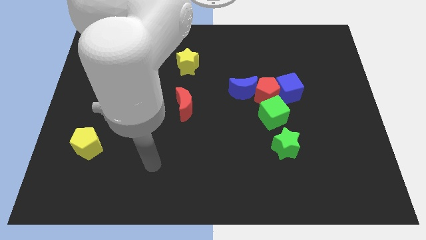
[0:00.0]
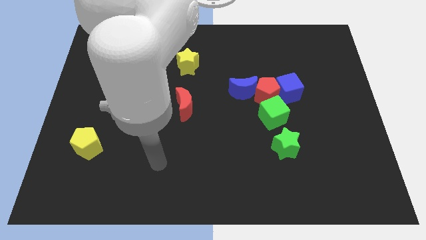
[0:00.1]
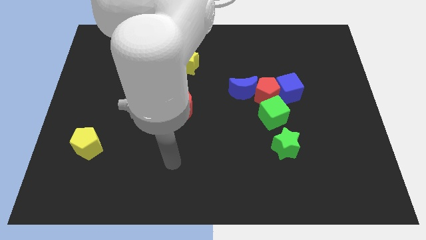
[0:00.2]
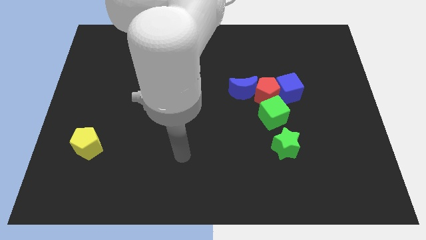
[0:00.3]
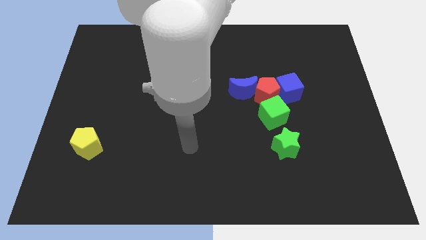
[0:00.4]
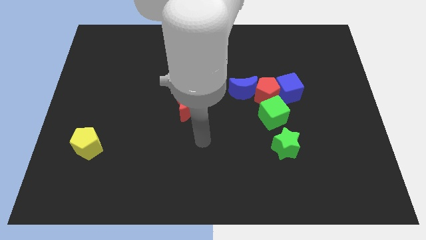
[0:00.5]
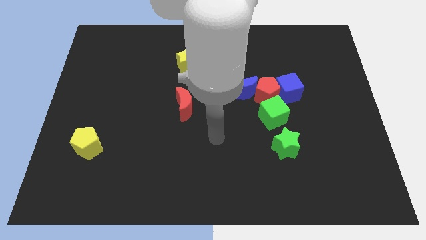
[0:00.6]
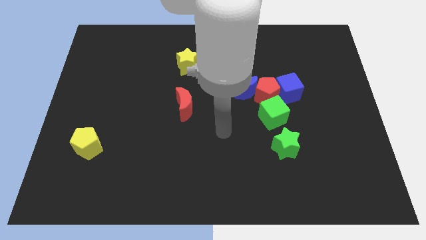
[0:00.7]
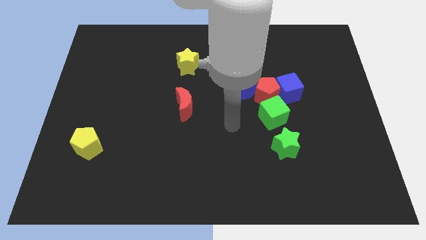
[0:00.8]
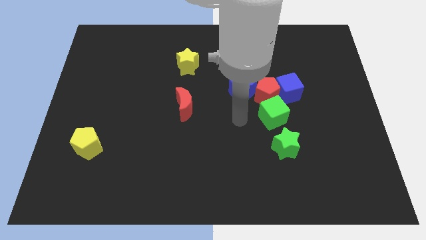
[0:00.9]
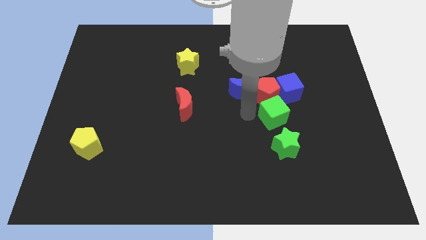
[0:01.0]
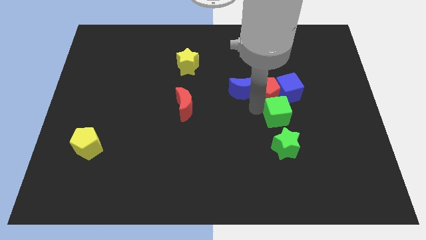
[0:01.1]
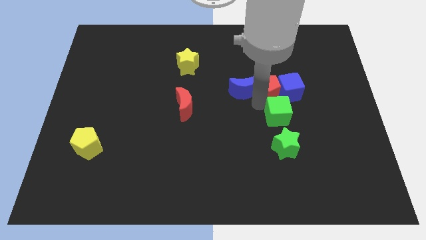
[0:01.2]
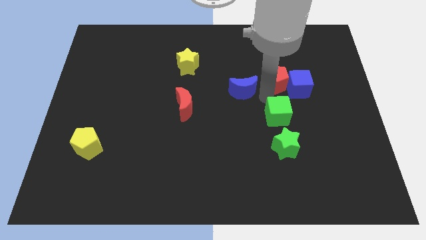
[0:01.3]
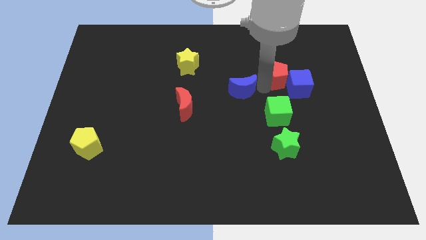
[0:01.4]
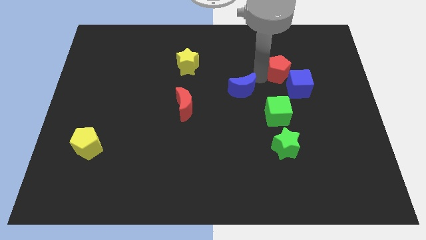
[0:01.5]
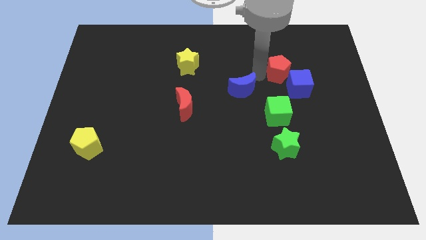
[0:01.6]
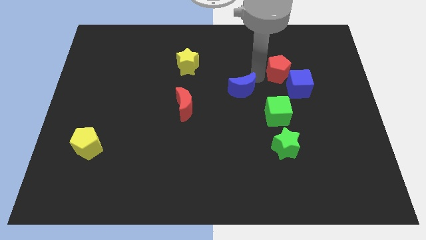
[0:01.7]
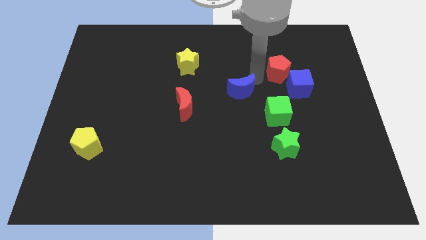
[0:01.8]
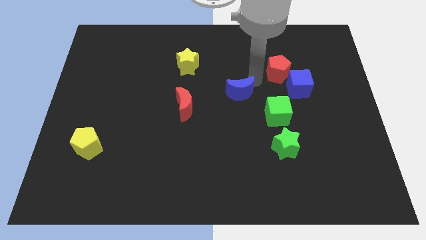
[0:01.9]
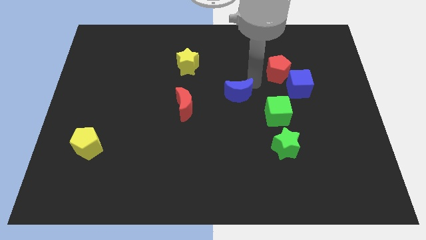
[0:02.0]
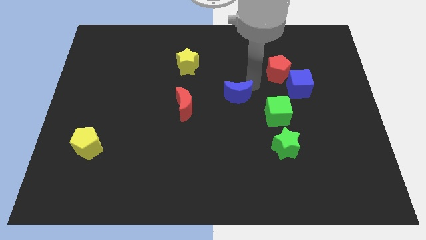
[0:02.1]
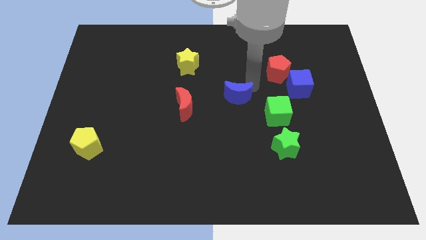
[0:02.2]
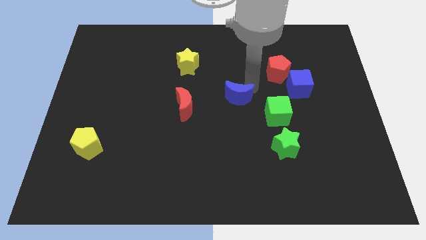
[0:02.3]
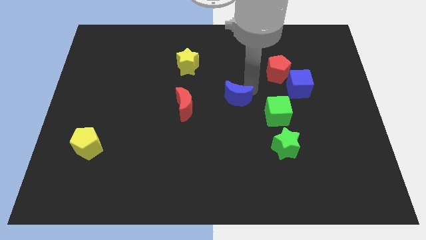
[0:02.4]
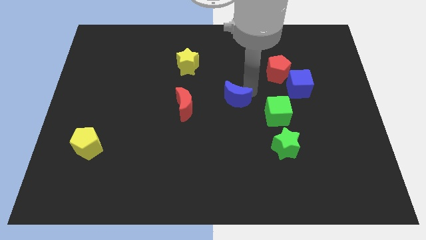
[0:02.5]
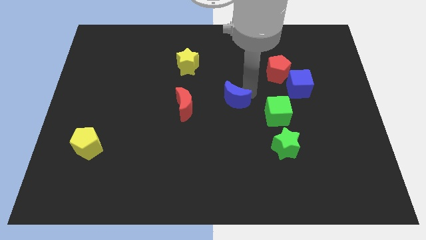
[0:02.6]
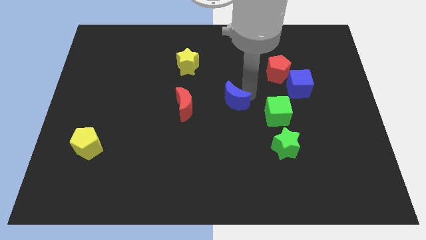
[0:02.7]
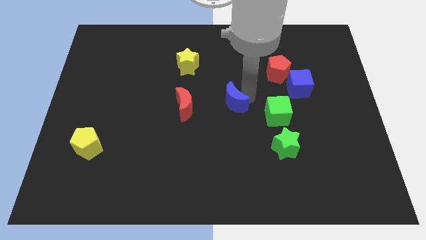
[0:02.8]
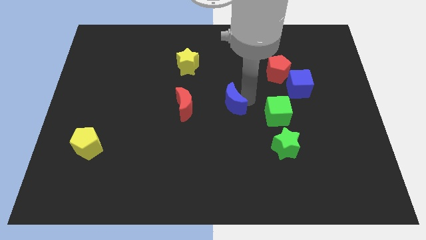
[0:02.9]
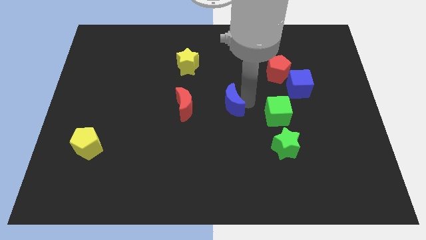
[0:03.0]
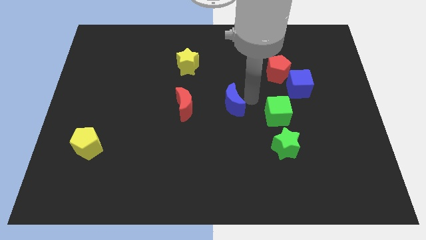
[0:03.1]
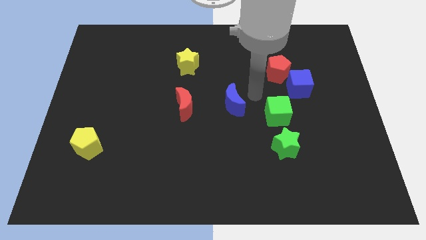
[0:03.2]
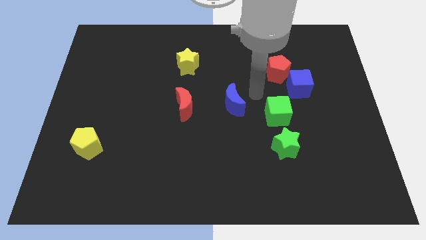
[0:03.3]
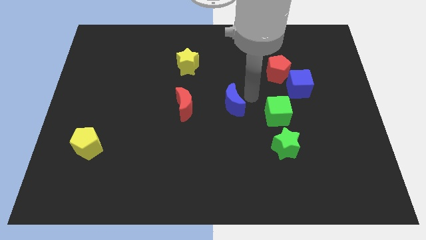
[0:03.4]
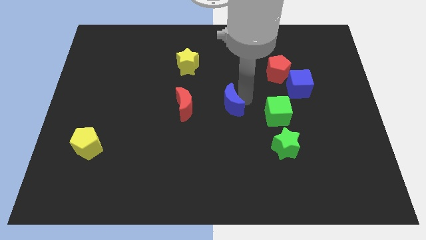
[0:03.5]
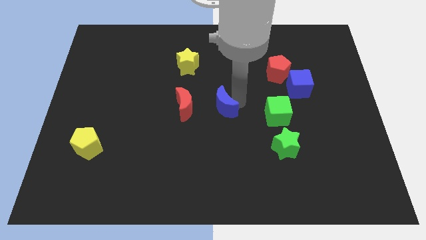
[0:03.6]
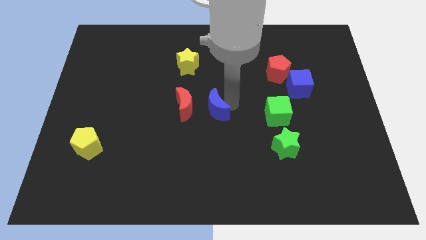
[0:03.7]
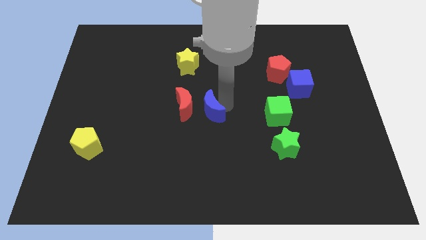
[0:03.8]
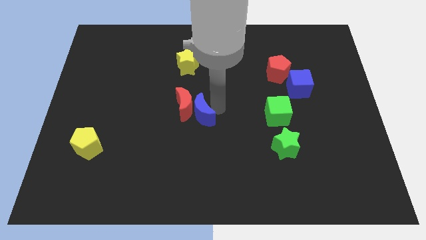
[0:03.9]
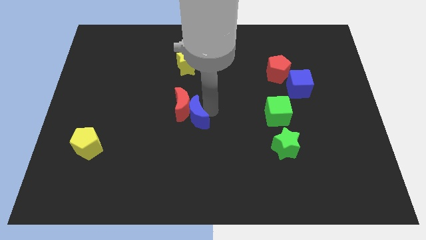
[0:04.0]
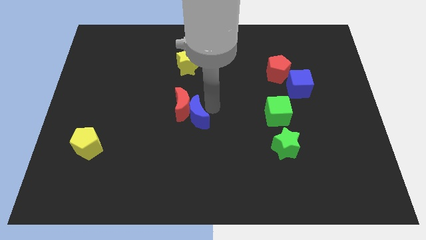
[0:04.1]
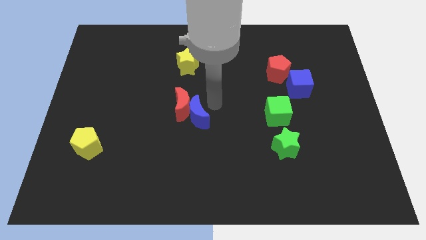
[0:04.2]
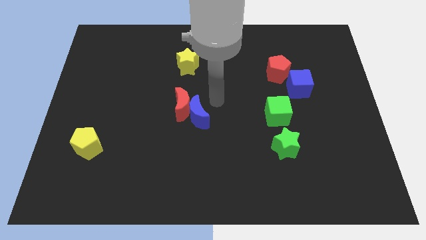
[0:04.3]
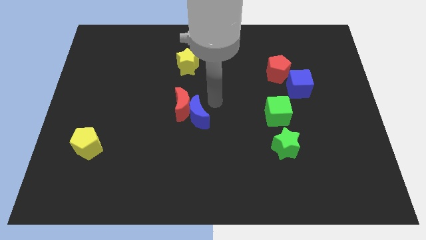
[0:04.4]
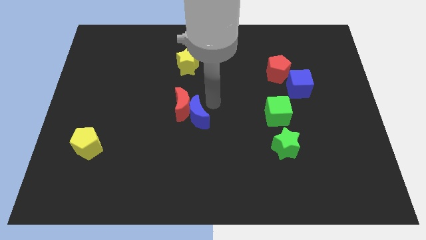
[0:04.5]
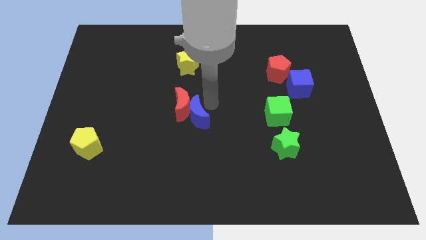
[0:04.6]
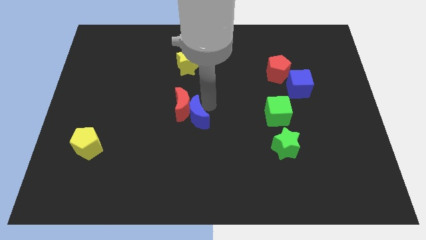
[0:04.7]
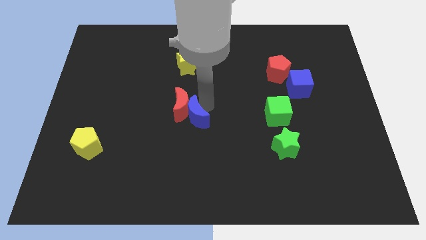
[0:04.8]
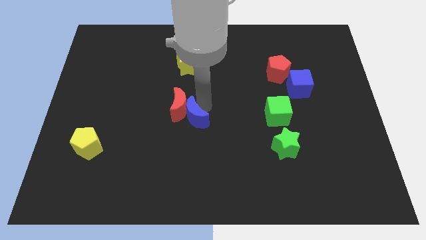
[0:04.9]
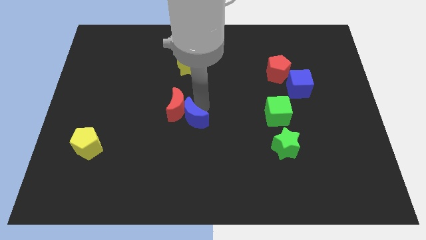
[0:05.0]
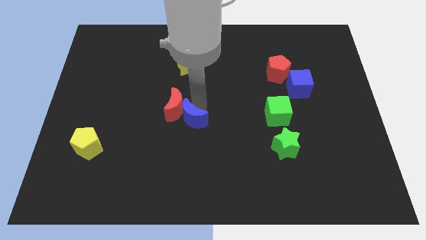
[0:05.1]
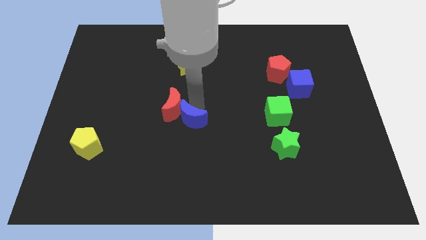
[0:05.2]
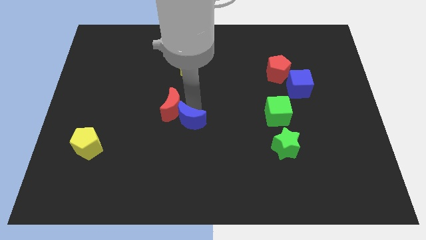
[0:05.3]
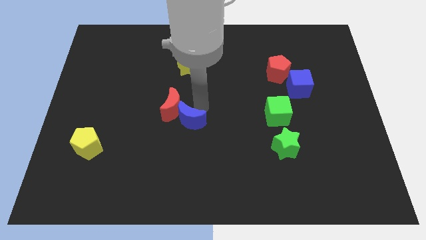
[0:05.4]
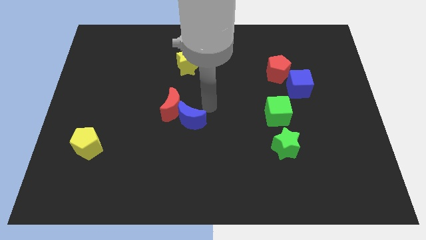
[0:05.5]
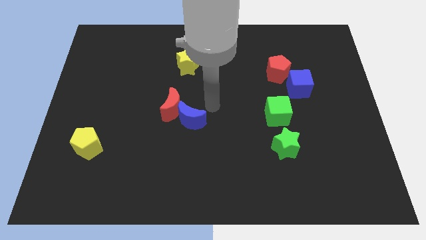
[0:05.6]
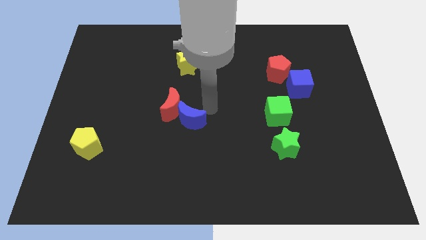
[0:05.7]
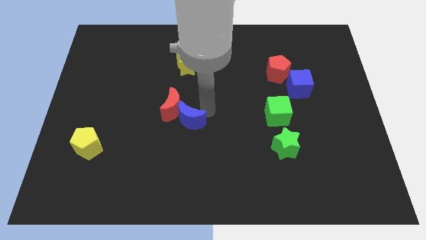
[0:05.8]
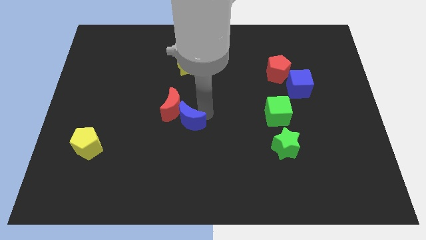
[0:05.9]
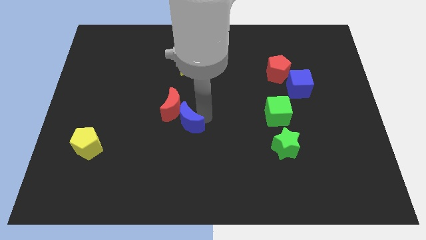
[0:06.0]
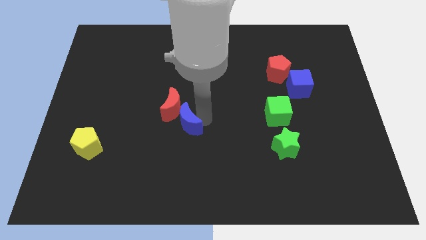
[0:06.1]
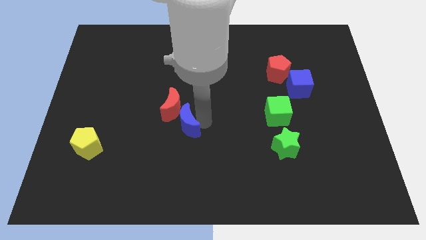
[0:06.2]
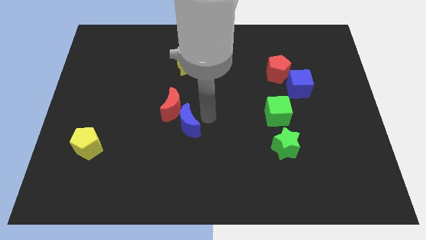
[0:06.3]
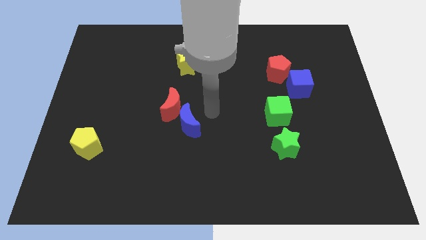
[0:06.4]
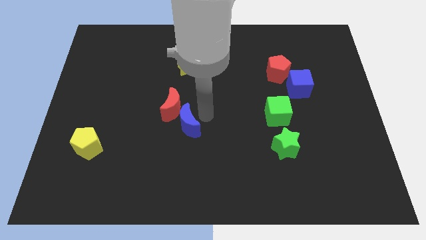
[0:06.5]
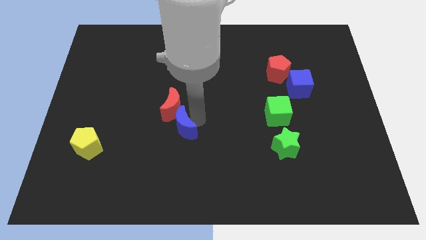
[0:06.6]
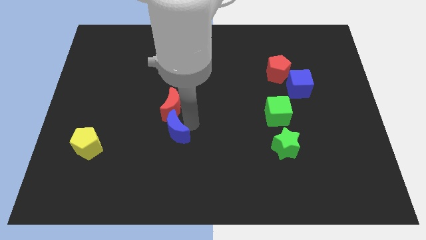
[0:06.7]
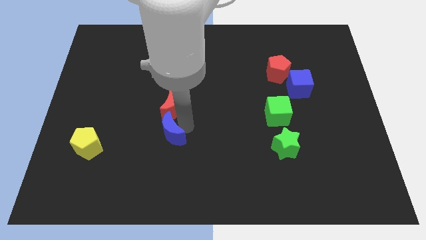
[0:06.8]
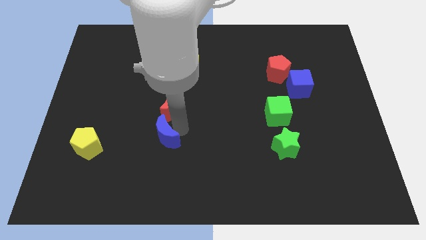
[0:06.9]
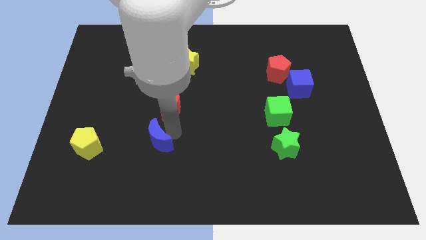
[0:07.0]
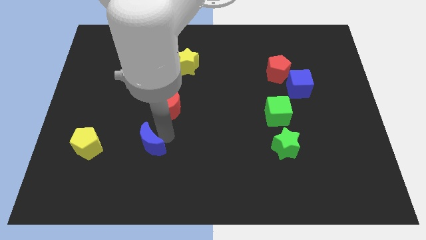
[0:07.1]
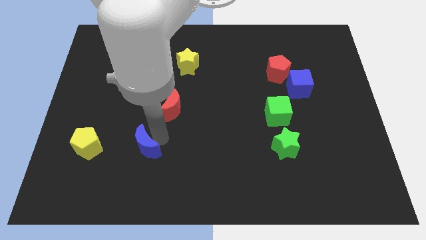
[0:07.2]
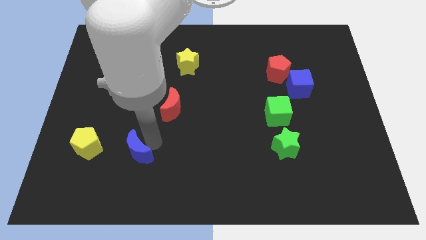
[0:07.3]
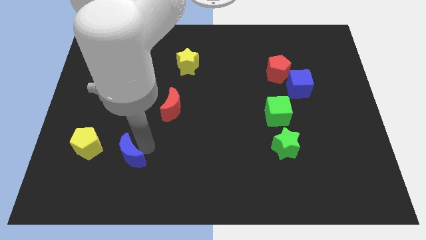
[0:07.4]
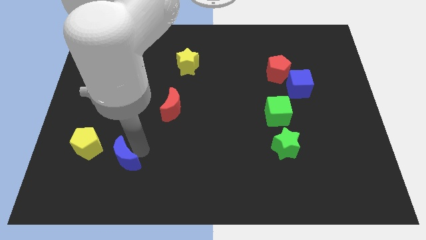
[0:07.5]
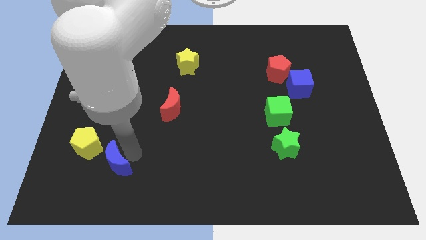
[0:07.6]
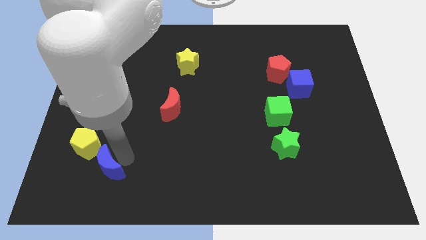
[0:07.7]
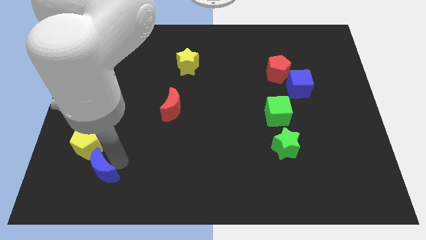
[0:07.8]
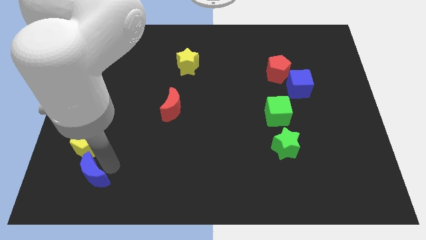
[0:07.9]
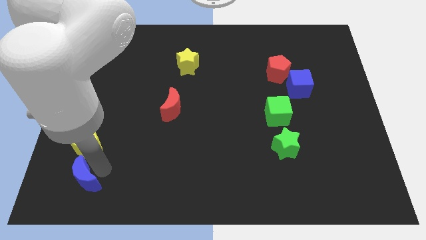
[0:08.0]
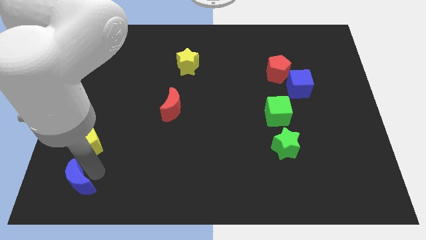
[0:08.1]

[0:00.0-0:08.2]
push the blue moon to the bottom left corner
